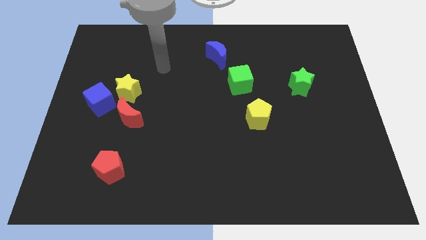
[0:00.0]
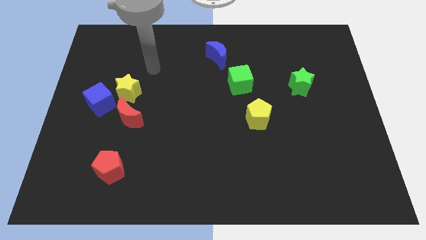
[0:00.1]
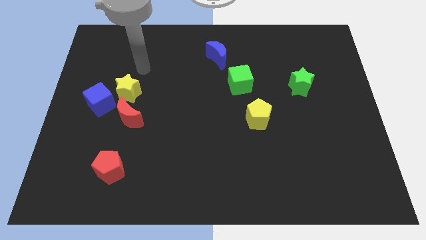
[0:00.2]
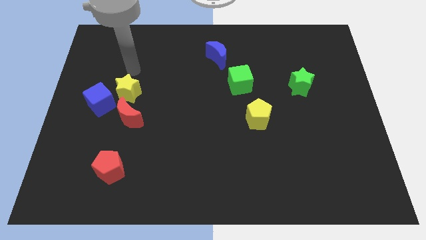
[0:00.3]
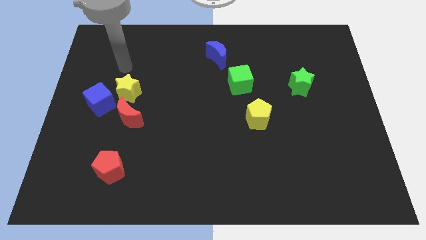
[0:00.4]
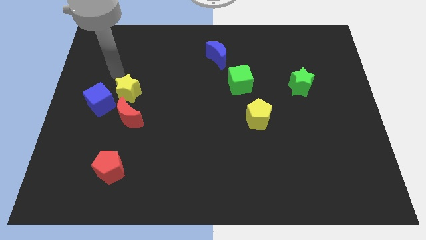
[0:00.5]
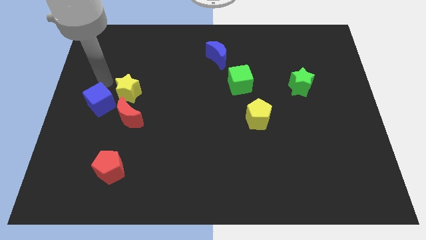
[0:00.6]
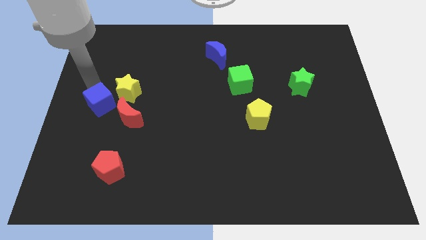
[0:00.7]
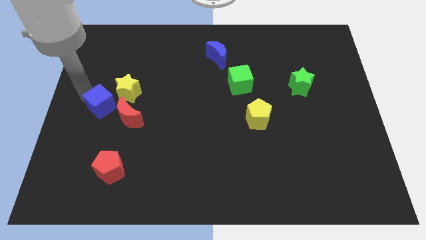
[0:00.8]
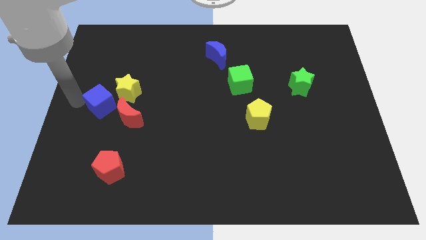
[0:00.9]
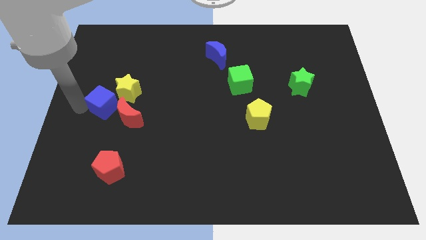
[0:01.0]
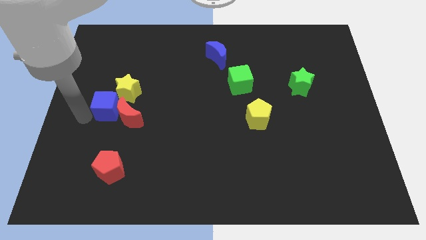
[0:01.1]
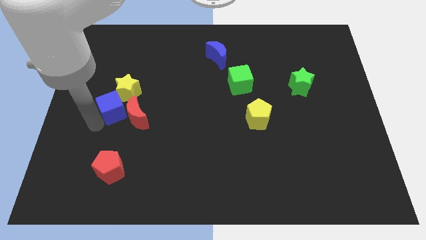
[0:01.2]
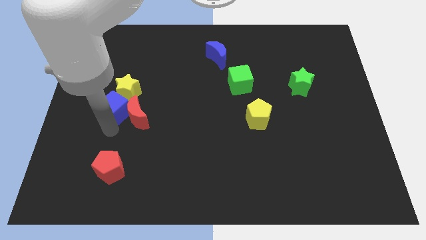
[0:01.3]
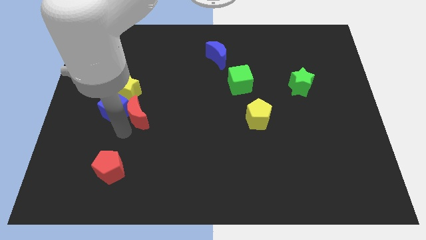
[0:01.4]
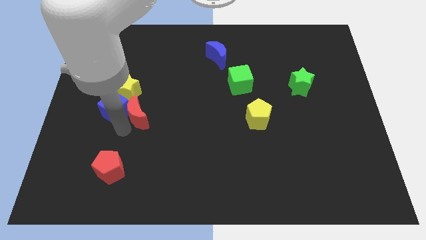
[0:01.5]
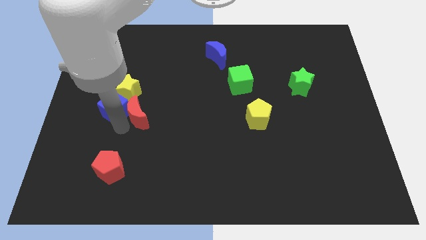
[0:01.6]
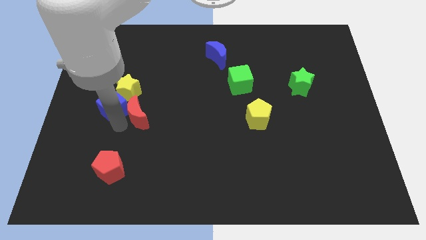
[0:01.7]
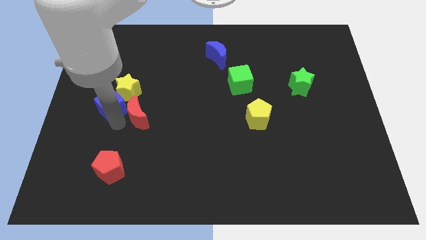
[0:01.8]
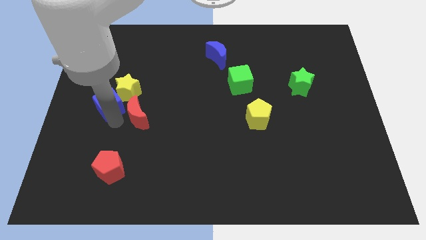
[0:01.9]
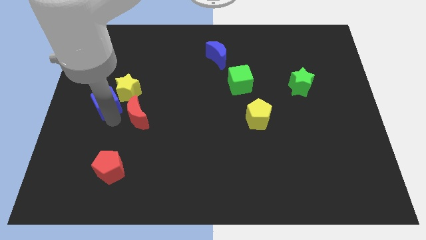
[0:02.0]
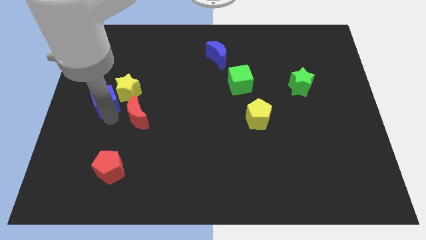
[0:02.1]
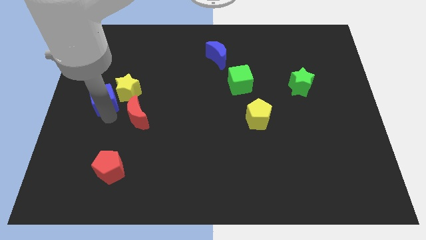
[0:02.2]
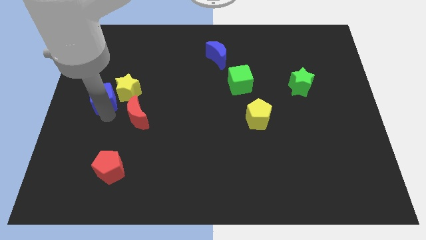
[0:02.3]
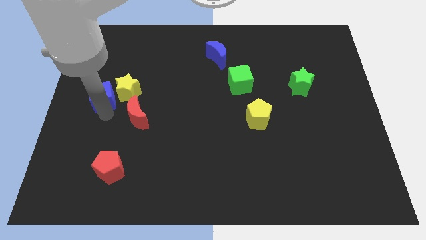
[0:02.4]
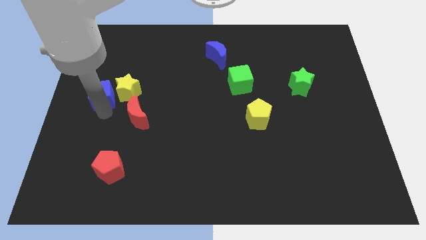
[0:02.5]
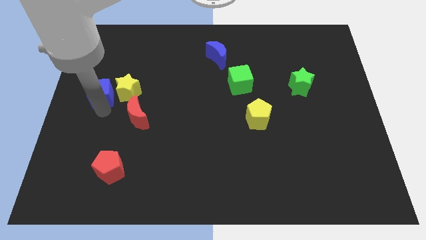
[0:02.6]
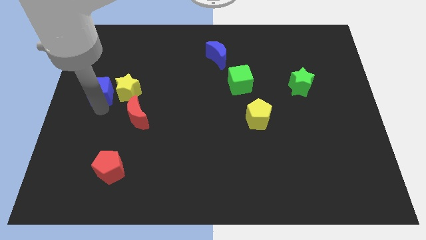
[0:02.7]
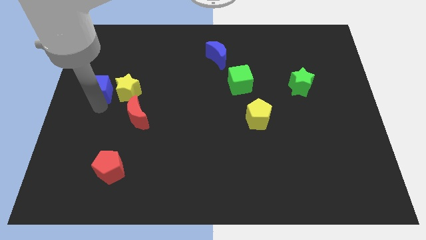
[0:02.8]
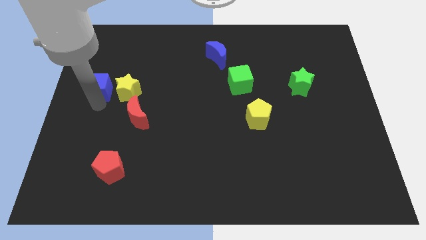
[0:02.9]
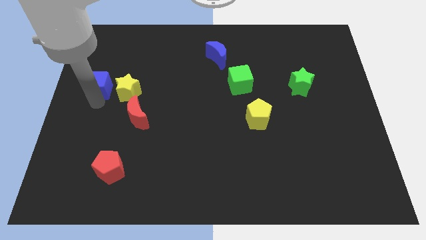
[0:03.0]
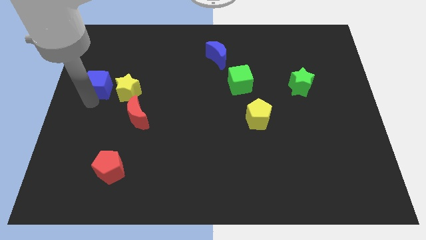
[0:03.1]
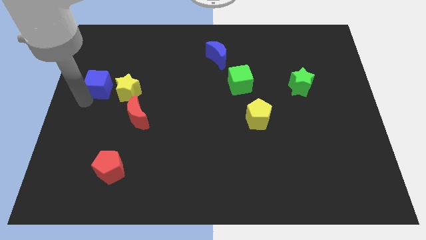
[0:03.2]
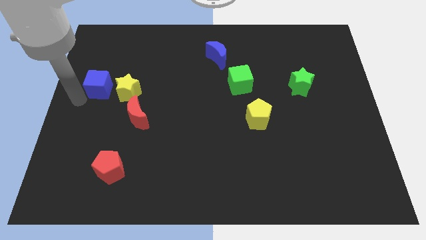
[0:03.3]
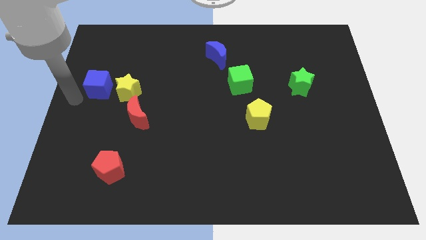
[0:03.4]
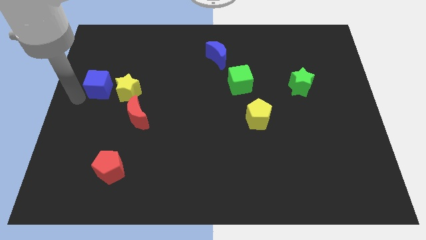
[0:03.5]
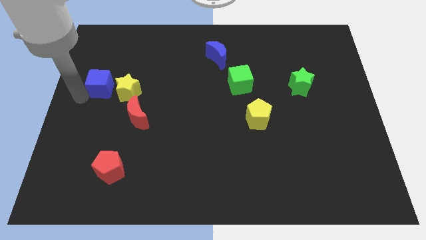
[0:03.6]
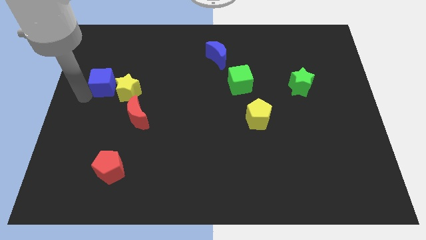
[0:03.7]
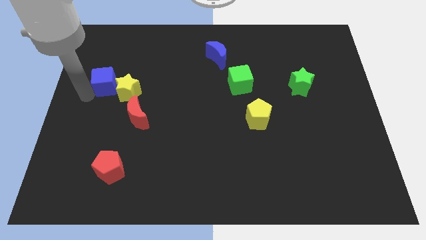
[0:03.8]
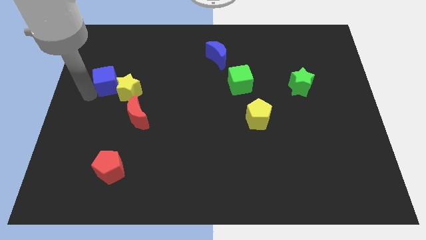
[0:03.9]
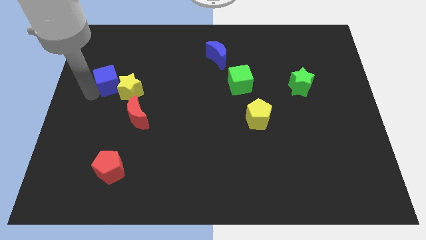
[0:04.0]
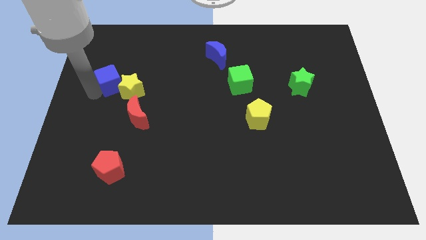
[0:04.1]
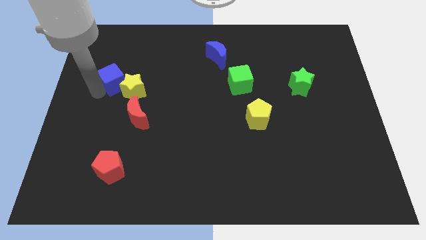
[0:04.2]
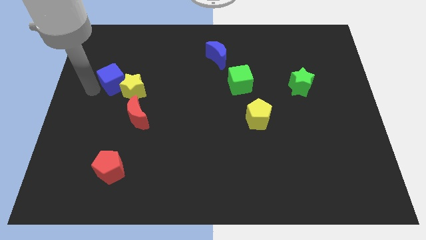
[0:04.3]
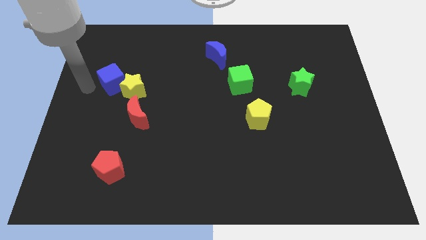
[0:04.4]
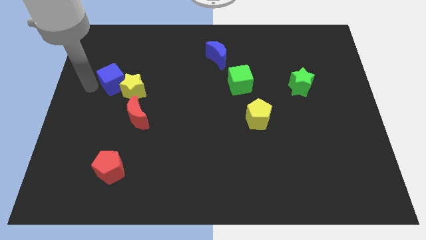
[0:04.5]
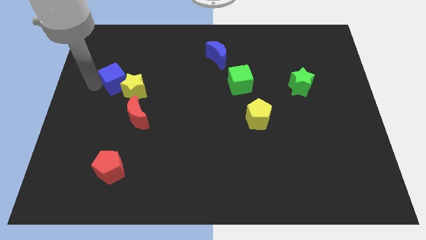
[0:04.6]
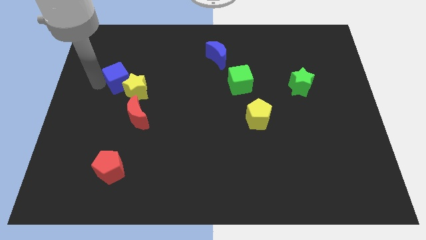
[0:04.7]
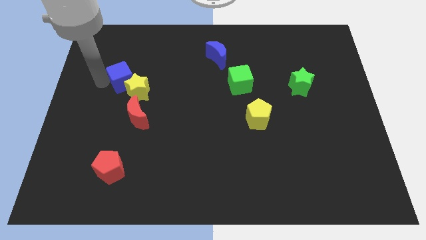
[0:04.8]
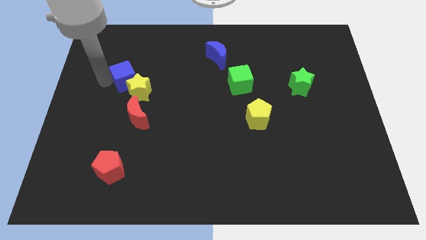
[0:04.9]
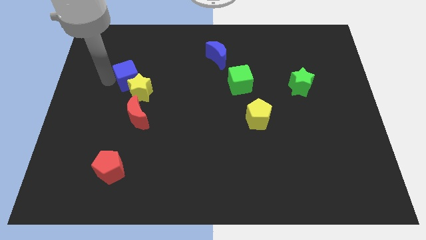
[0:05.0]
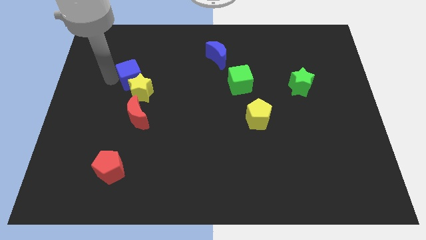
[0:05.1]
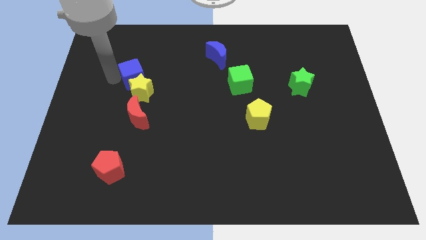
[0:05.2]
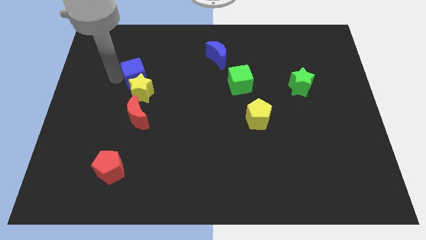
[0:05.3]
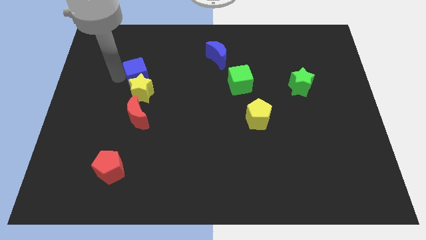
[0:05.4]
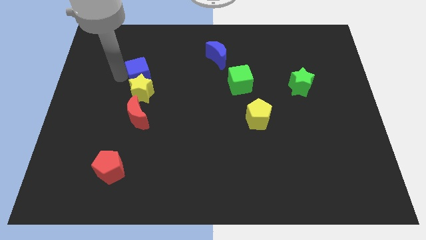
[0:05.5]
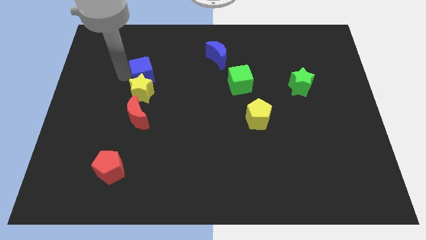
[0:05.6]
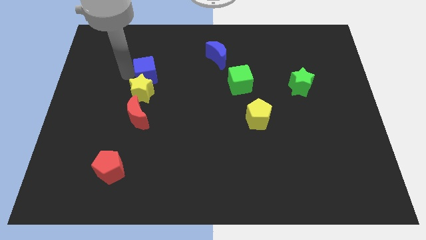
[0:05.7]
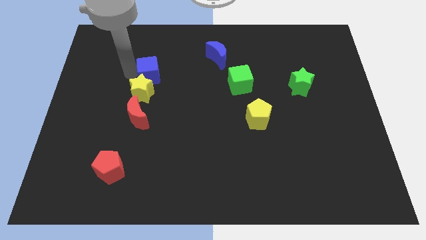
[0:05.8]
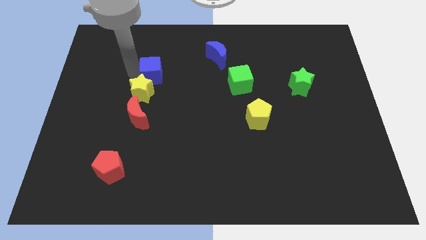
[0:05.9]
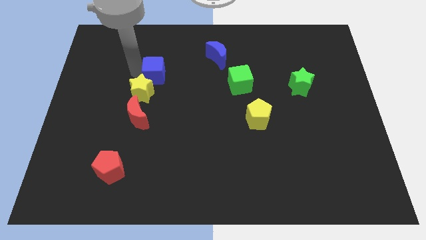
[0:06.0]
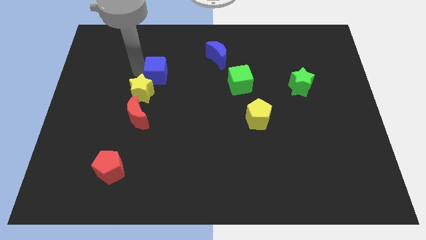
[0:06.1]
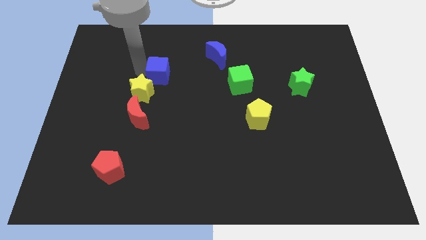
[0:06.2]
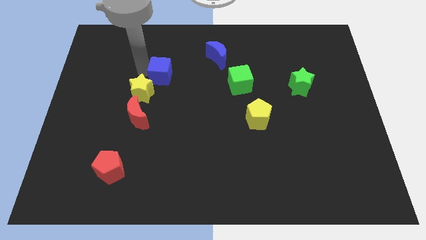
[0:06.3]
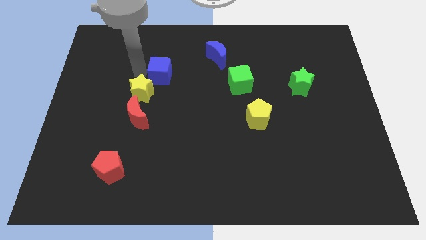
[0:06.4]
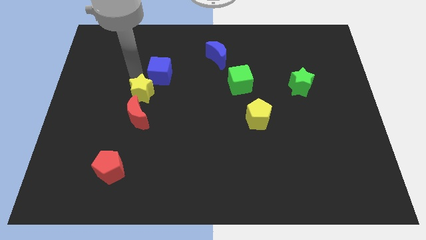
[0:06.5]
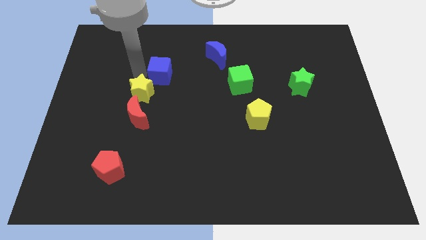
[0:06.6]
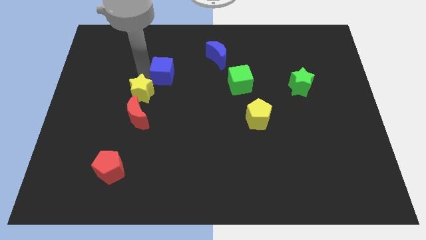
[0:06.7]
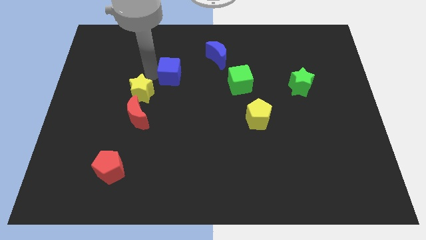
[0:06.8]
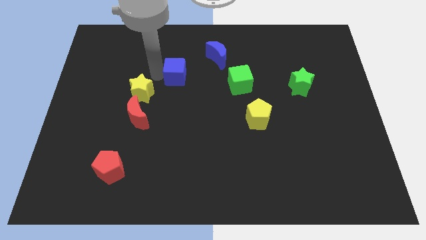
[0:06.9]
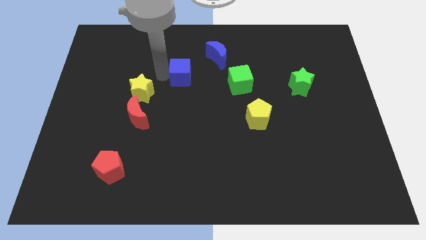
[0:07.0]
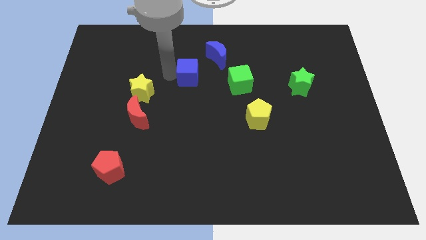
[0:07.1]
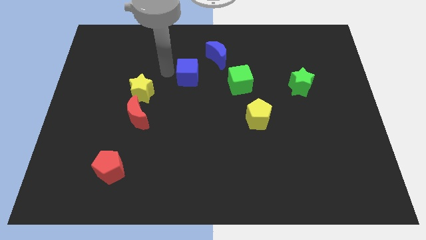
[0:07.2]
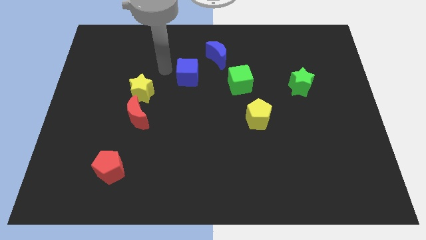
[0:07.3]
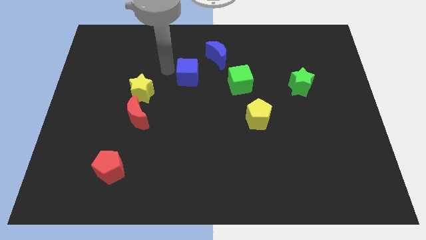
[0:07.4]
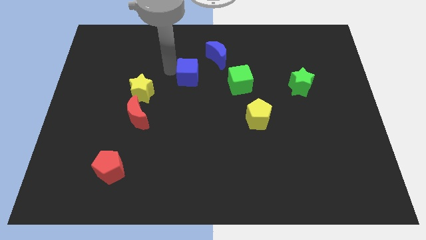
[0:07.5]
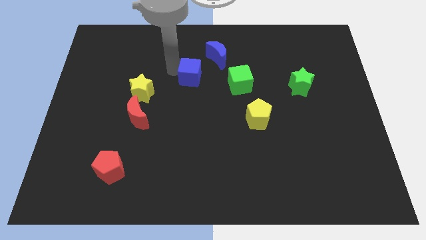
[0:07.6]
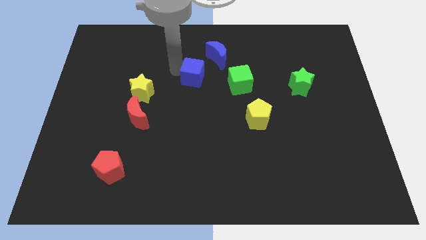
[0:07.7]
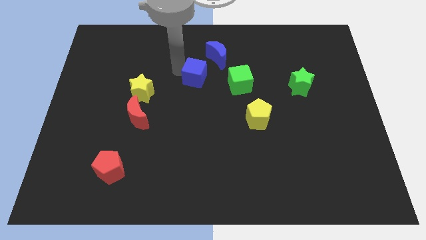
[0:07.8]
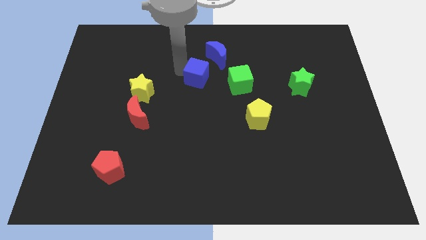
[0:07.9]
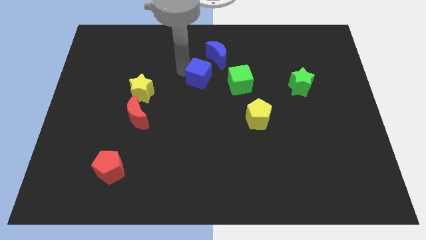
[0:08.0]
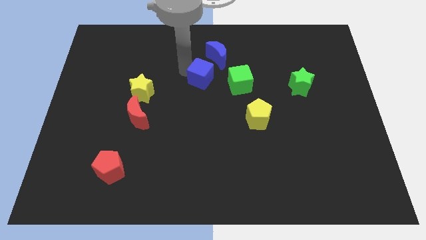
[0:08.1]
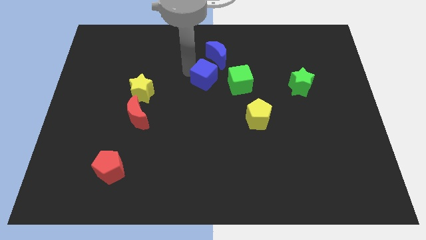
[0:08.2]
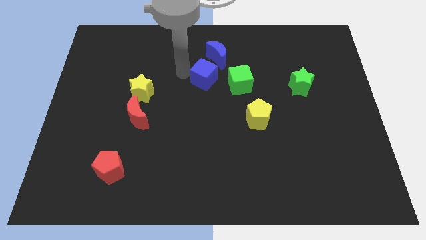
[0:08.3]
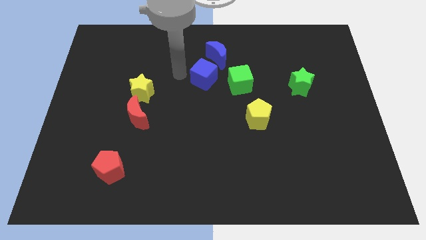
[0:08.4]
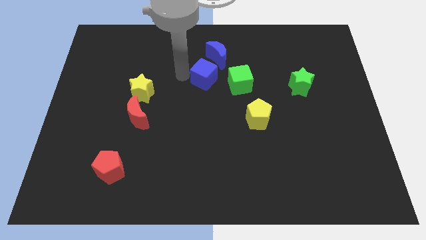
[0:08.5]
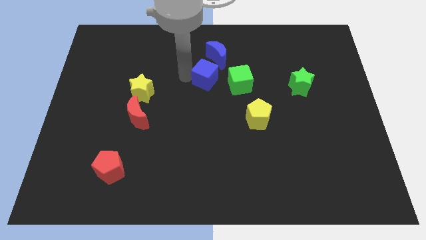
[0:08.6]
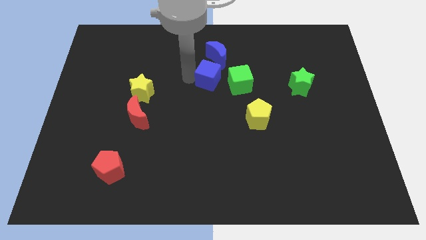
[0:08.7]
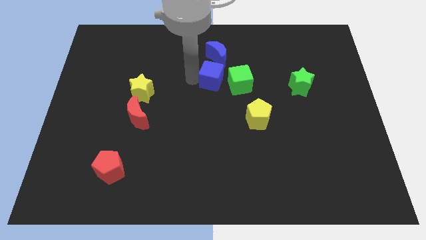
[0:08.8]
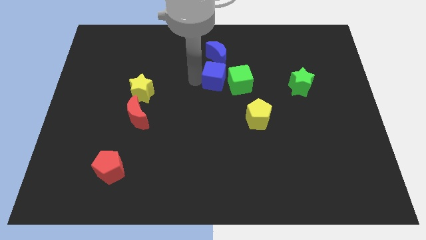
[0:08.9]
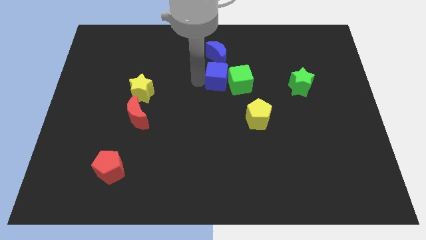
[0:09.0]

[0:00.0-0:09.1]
slide the blue cube close to the green cube
